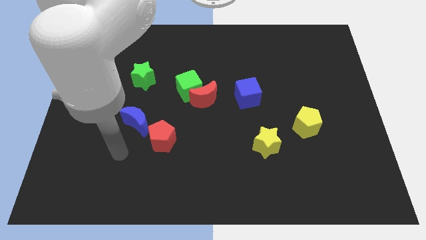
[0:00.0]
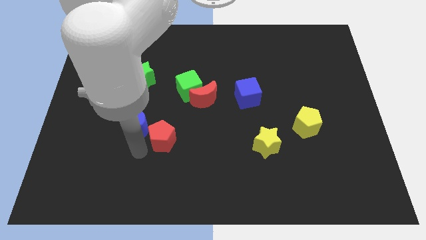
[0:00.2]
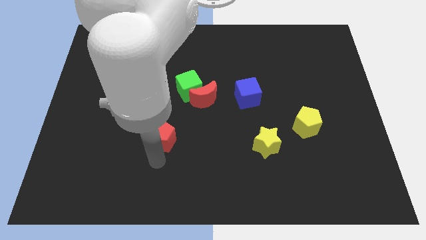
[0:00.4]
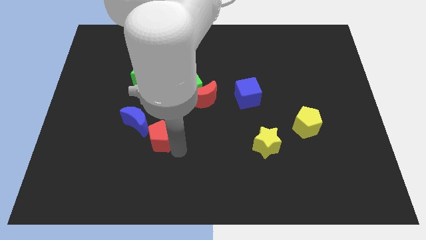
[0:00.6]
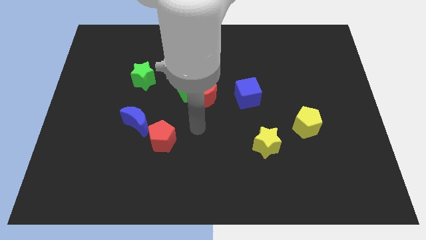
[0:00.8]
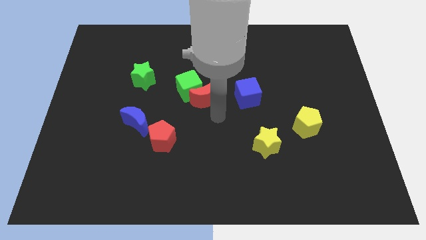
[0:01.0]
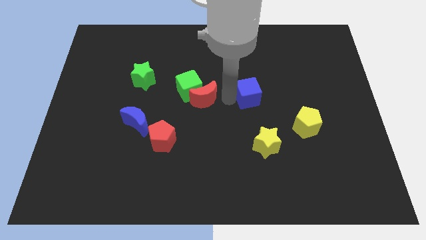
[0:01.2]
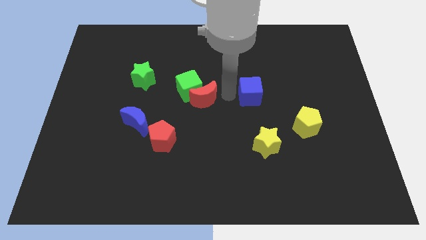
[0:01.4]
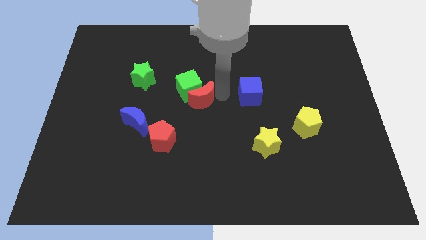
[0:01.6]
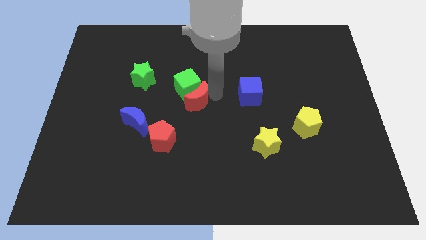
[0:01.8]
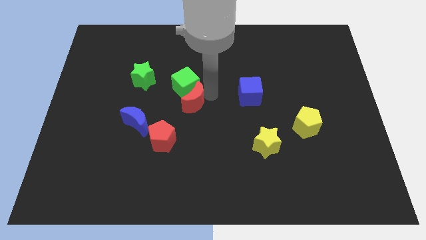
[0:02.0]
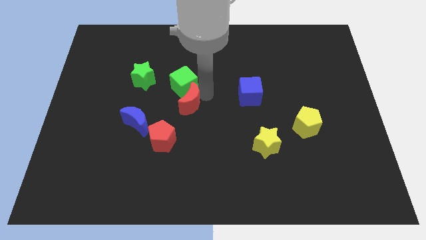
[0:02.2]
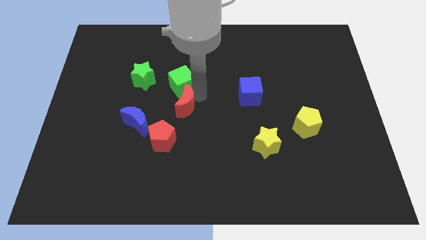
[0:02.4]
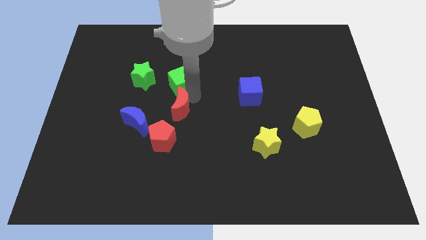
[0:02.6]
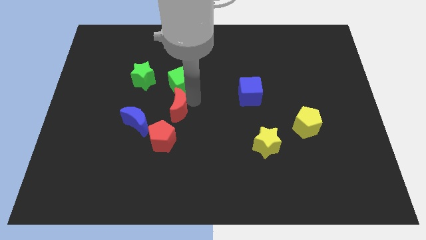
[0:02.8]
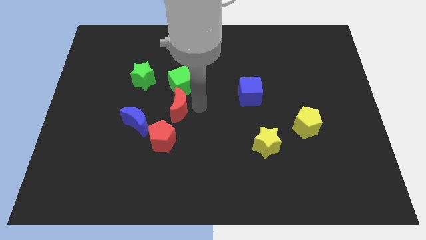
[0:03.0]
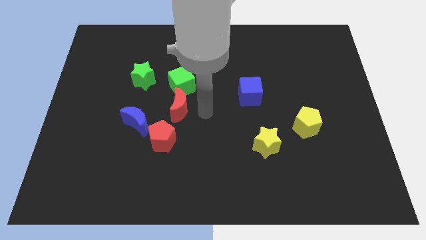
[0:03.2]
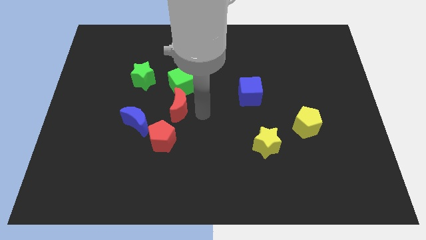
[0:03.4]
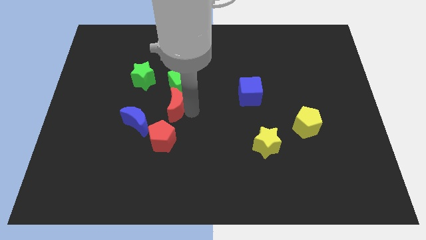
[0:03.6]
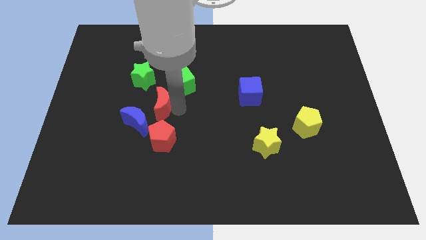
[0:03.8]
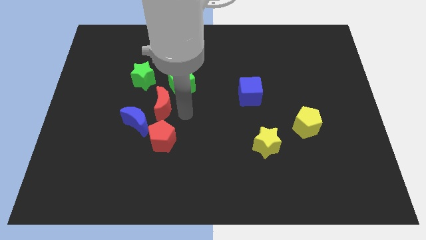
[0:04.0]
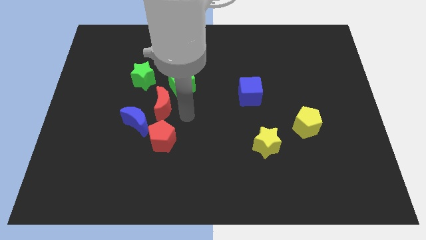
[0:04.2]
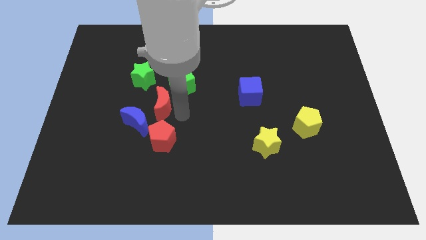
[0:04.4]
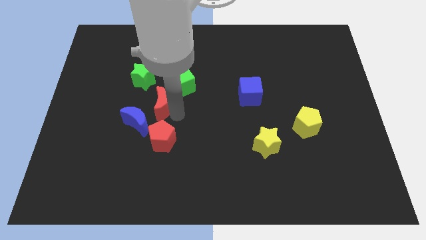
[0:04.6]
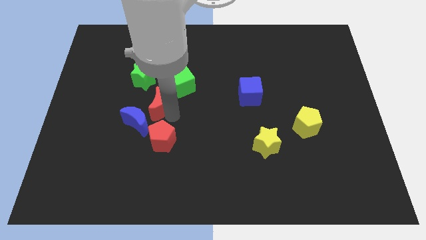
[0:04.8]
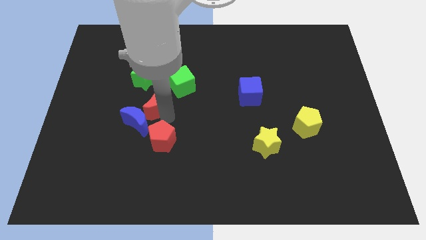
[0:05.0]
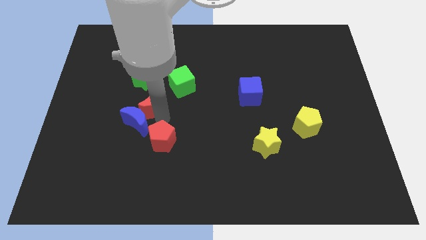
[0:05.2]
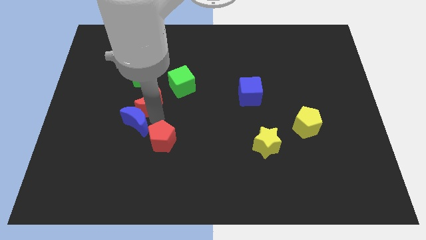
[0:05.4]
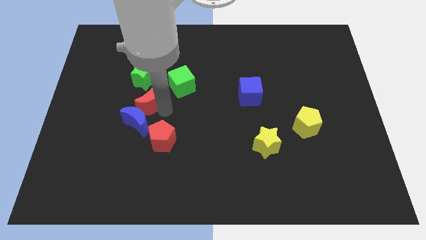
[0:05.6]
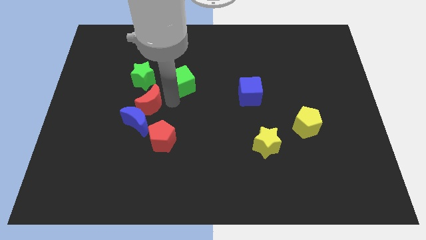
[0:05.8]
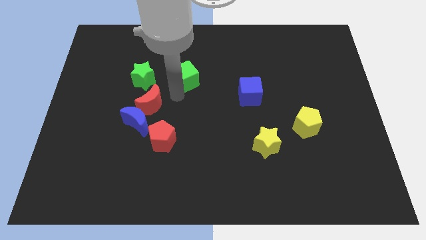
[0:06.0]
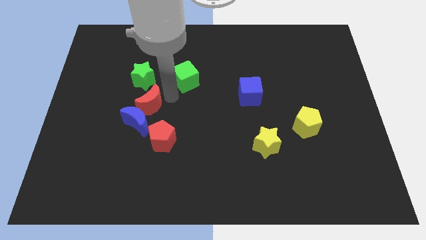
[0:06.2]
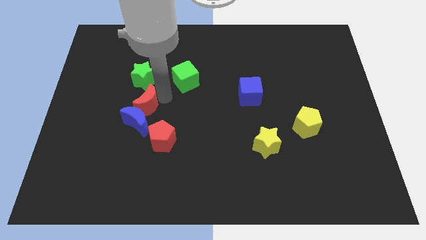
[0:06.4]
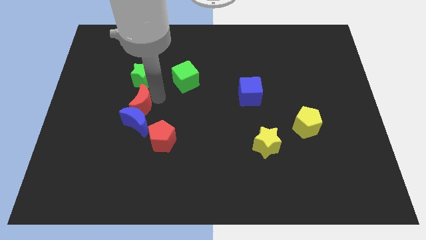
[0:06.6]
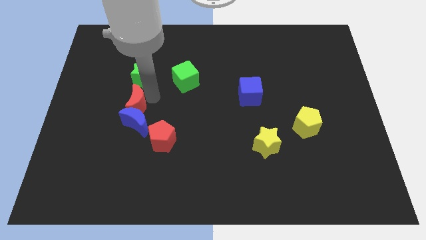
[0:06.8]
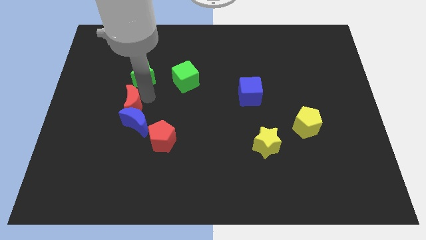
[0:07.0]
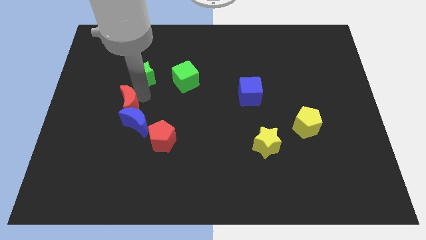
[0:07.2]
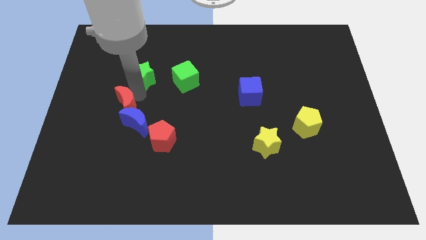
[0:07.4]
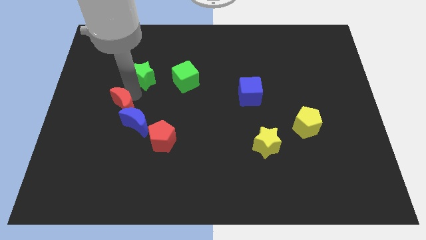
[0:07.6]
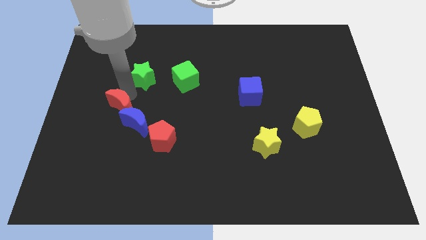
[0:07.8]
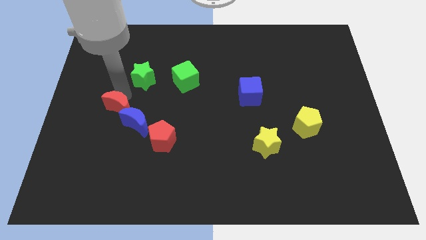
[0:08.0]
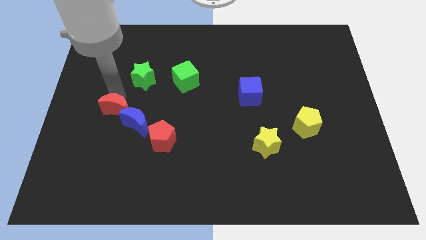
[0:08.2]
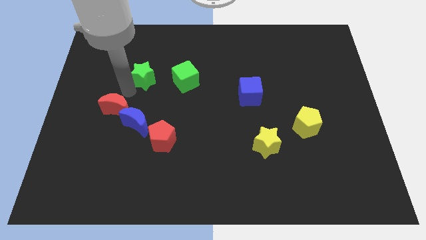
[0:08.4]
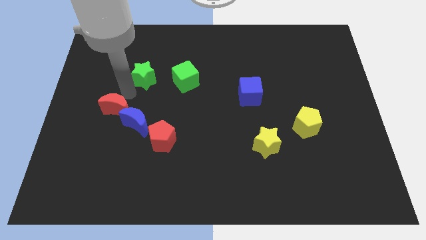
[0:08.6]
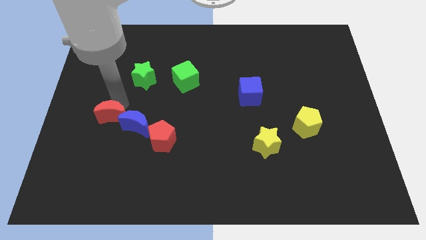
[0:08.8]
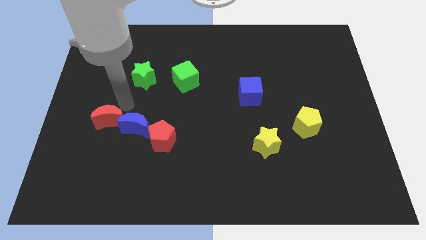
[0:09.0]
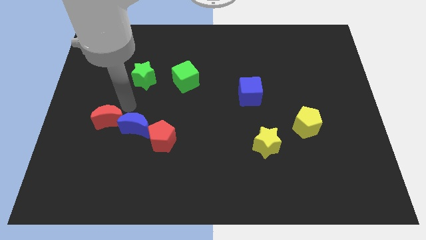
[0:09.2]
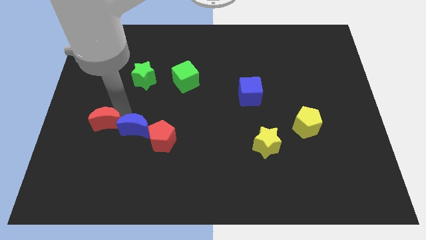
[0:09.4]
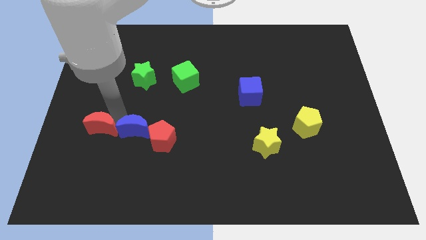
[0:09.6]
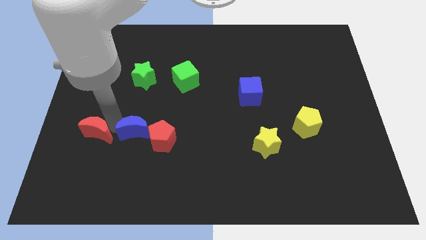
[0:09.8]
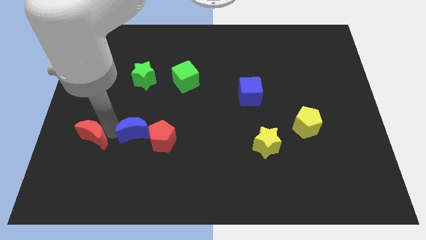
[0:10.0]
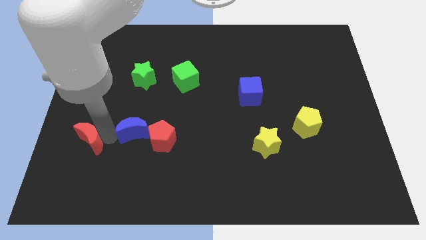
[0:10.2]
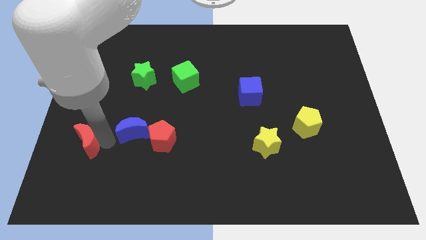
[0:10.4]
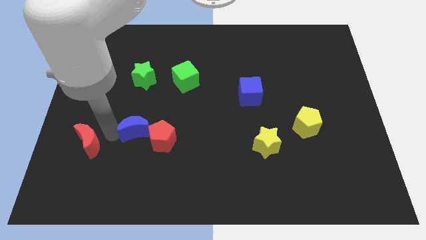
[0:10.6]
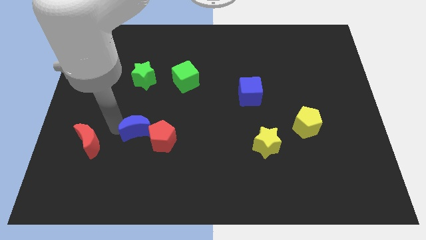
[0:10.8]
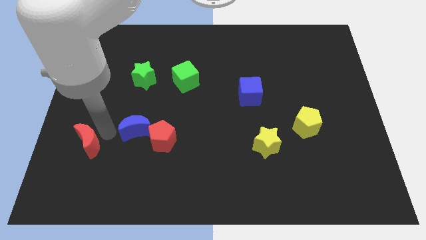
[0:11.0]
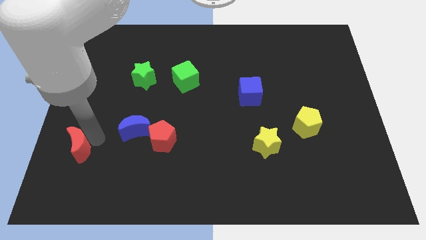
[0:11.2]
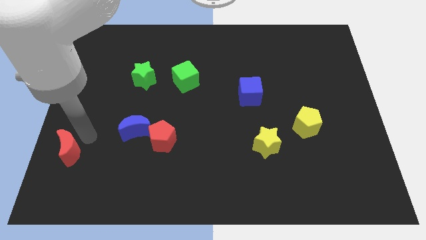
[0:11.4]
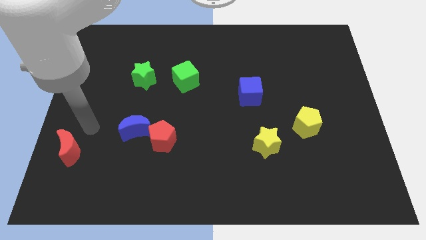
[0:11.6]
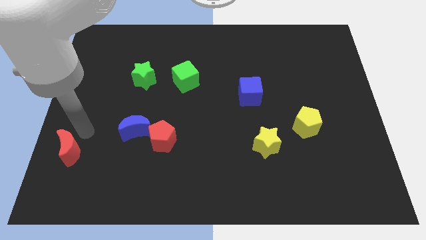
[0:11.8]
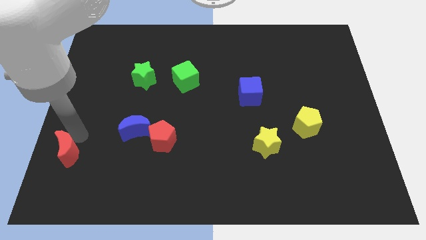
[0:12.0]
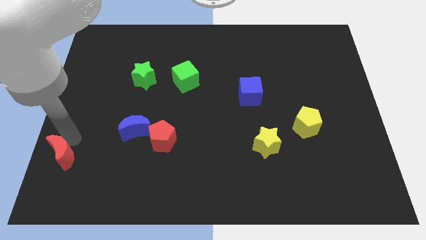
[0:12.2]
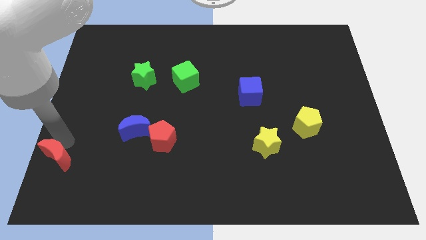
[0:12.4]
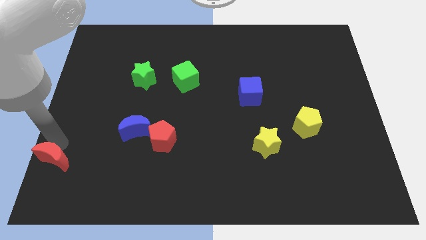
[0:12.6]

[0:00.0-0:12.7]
move the red moon to the bottom left of the board

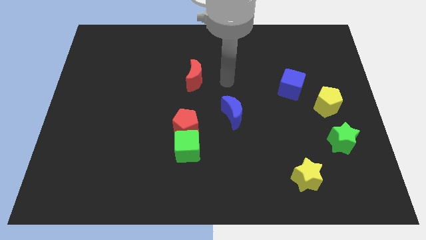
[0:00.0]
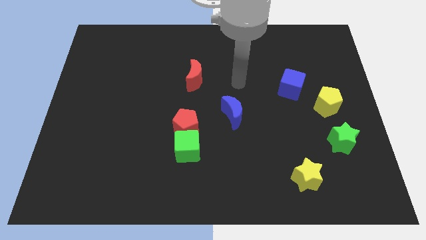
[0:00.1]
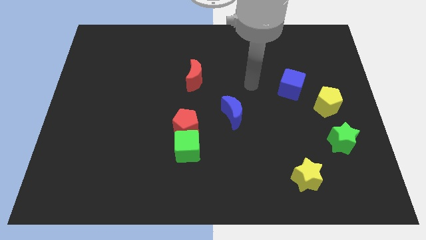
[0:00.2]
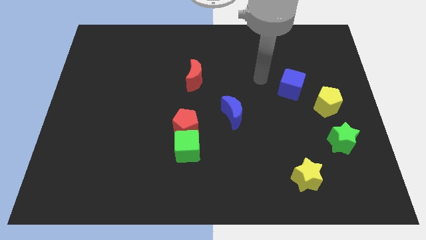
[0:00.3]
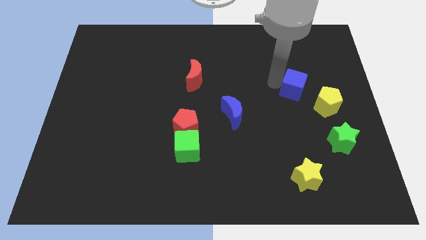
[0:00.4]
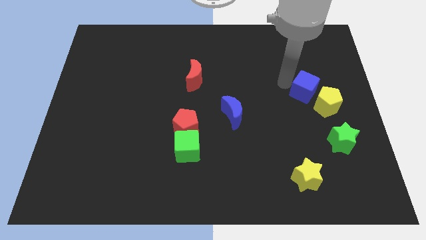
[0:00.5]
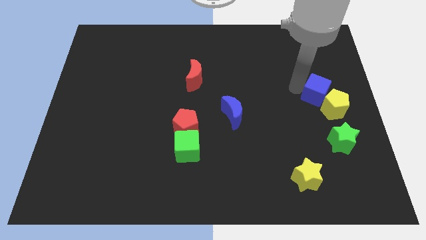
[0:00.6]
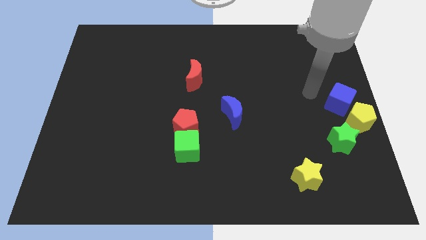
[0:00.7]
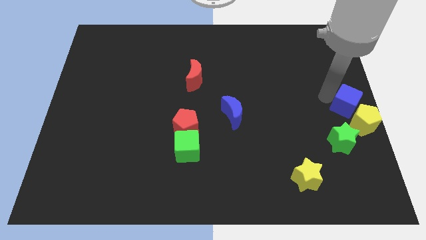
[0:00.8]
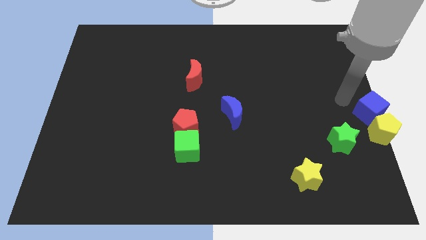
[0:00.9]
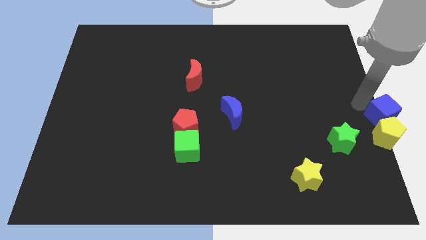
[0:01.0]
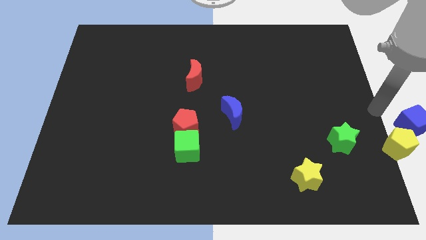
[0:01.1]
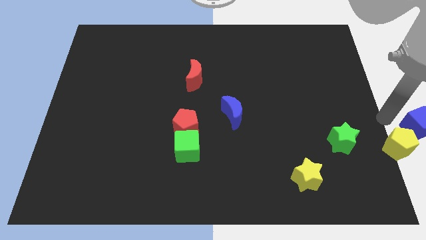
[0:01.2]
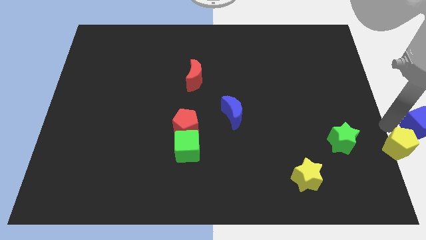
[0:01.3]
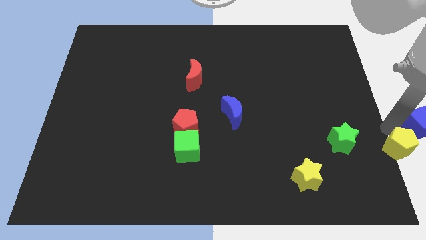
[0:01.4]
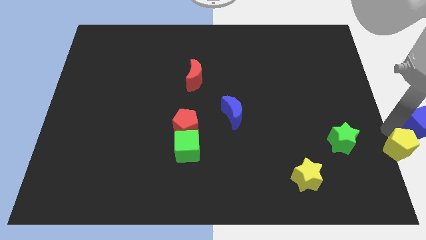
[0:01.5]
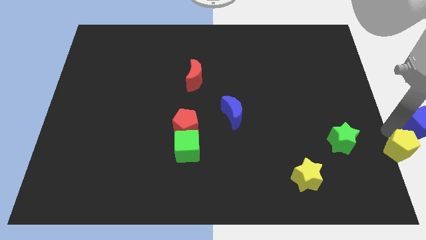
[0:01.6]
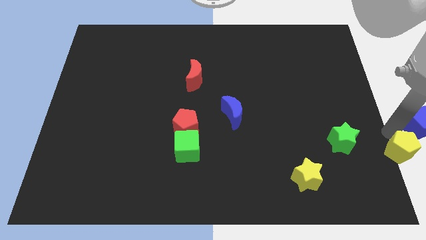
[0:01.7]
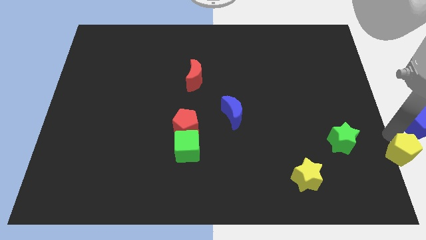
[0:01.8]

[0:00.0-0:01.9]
slide the yellow pentagon to the bottom right
